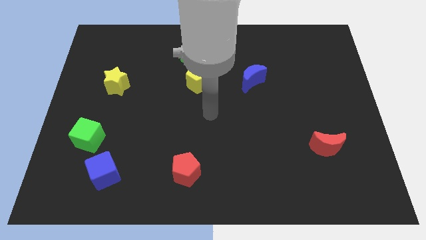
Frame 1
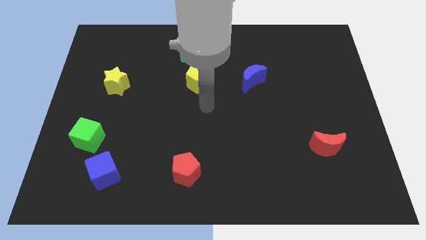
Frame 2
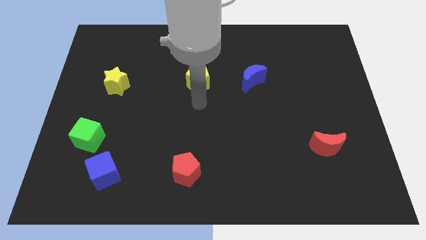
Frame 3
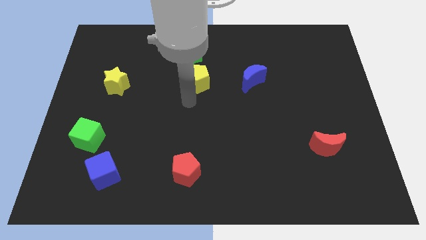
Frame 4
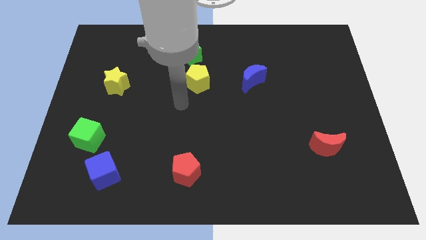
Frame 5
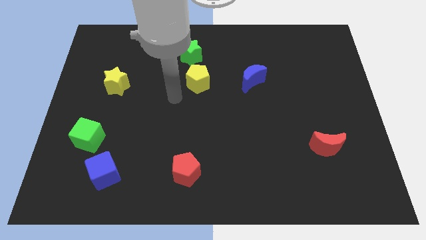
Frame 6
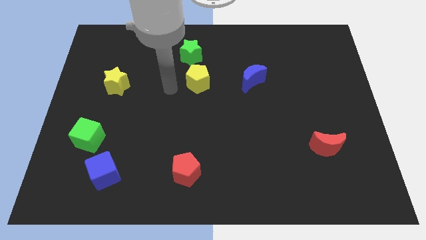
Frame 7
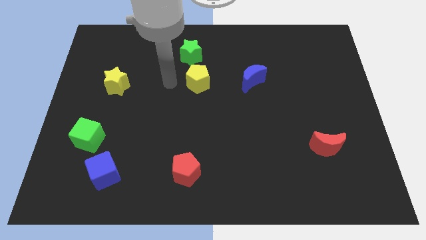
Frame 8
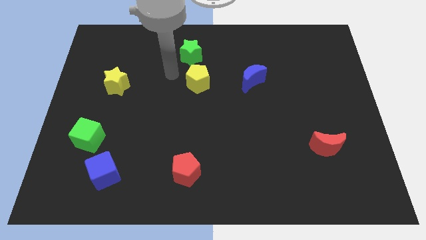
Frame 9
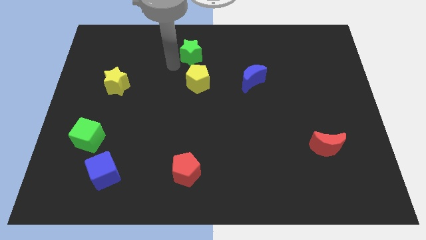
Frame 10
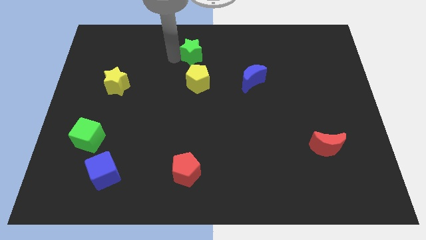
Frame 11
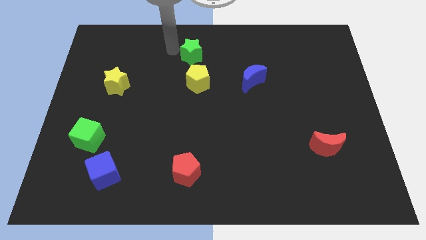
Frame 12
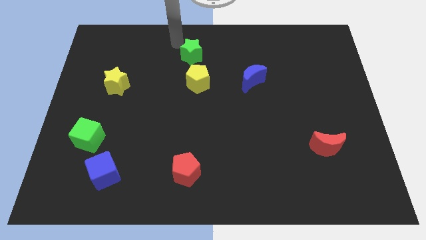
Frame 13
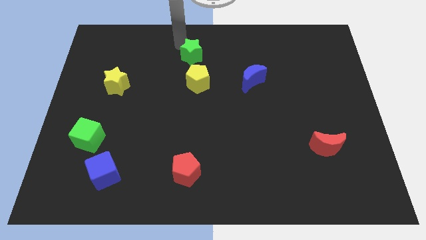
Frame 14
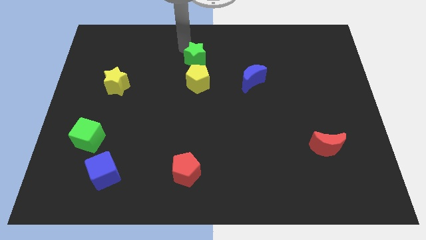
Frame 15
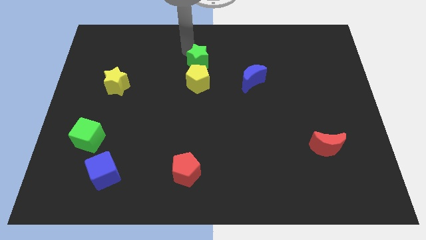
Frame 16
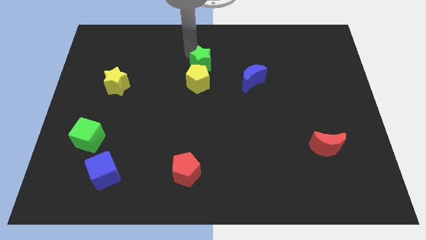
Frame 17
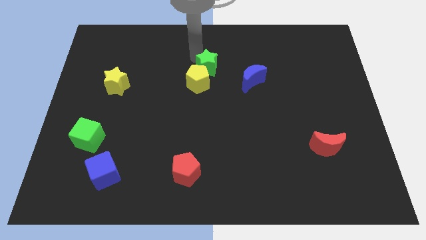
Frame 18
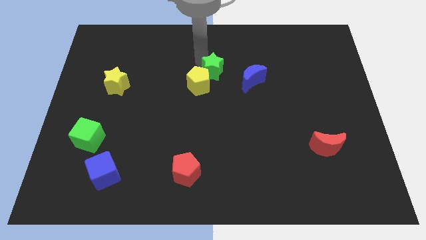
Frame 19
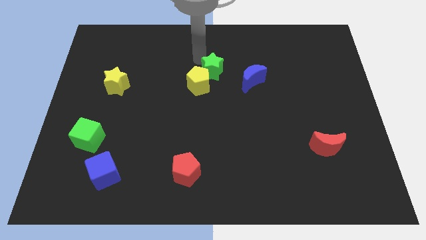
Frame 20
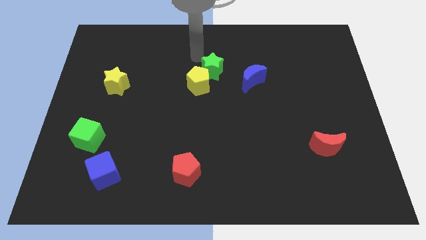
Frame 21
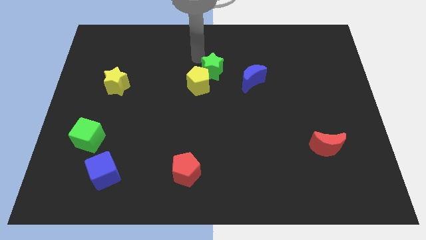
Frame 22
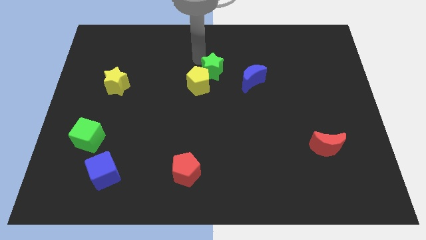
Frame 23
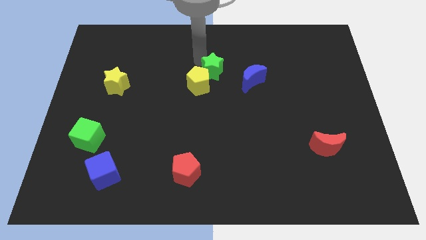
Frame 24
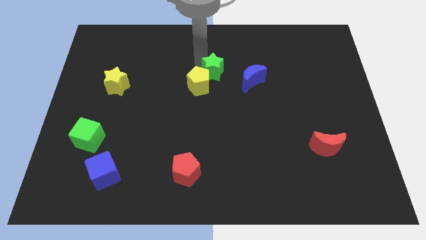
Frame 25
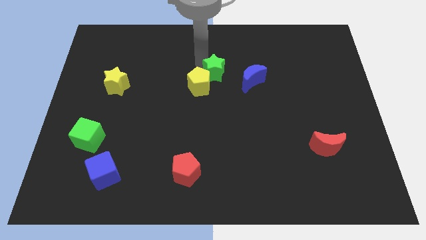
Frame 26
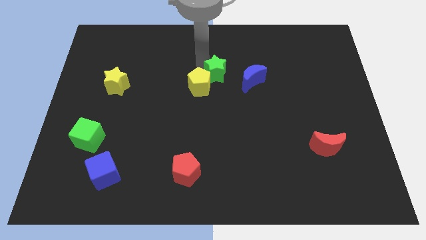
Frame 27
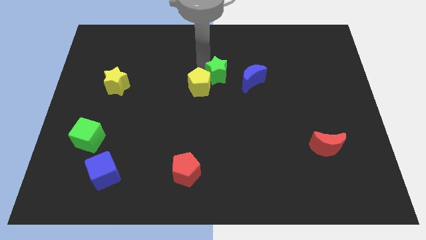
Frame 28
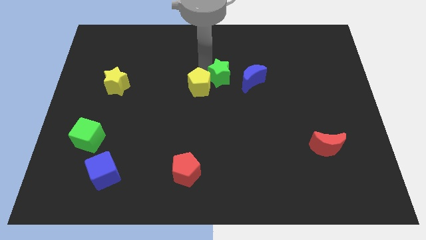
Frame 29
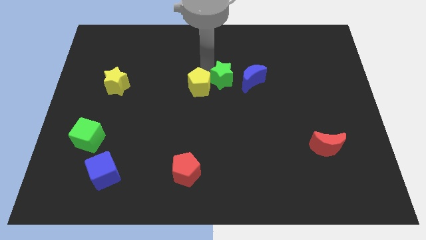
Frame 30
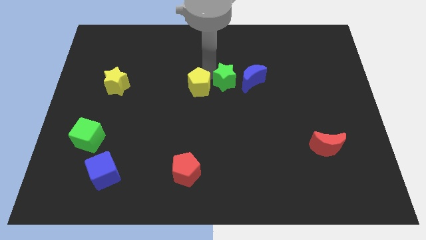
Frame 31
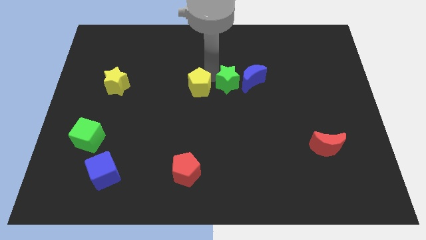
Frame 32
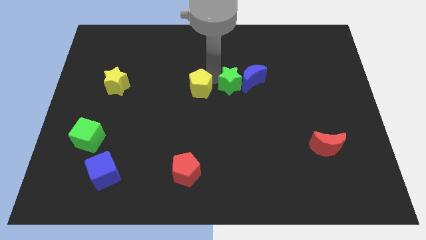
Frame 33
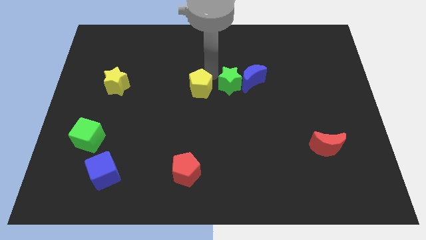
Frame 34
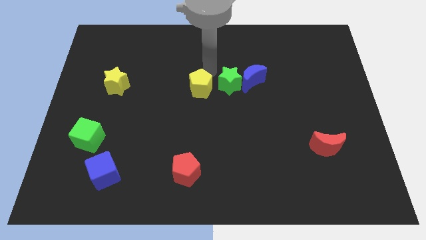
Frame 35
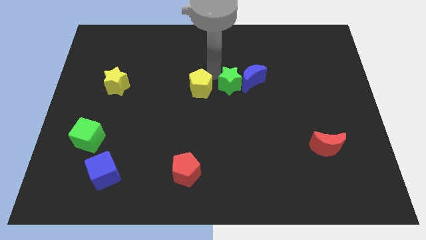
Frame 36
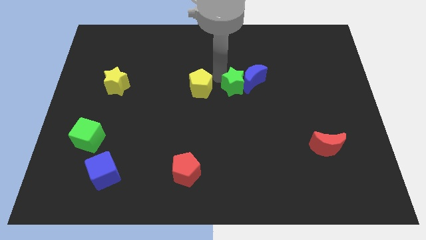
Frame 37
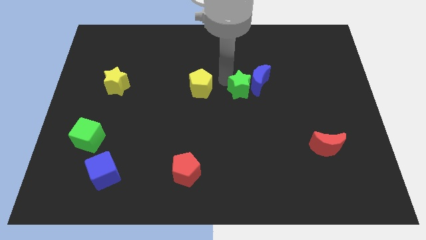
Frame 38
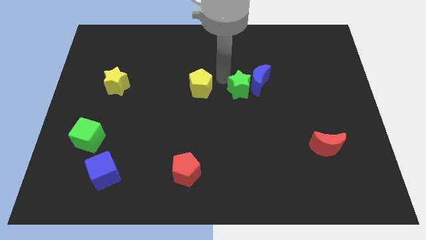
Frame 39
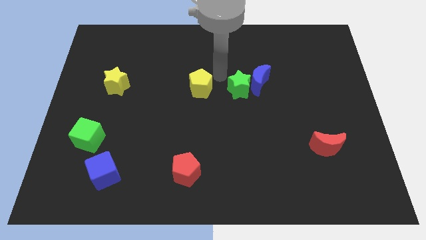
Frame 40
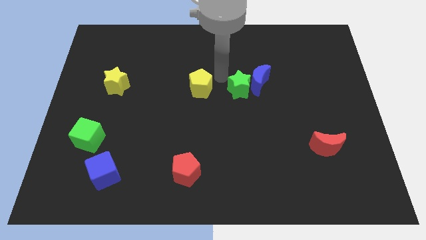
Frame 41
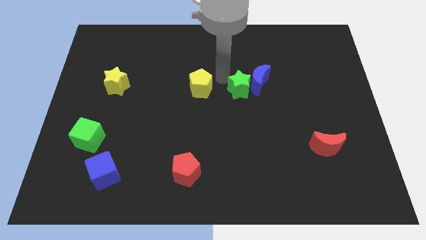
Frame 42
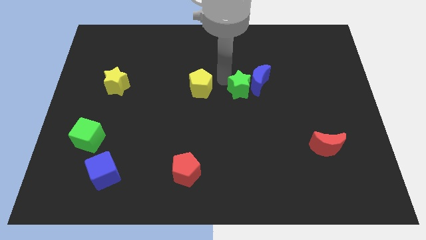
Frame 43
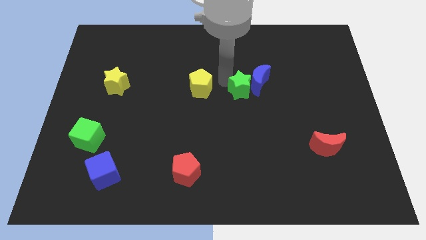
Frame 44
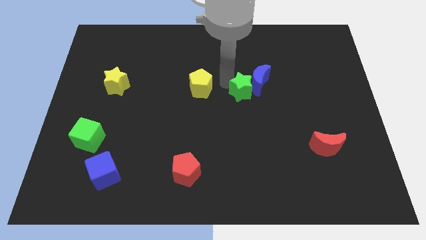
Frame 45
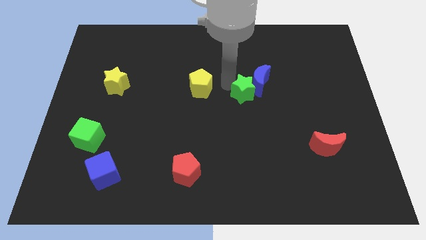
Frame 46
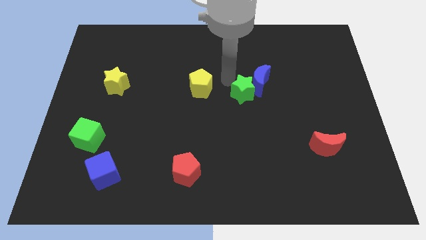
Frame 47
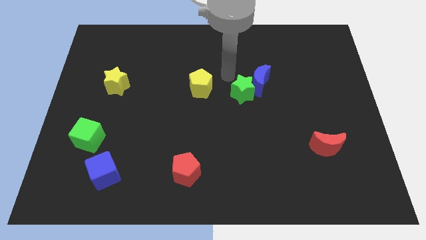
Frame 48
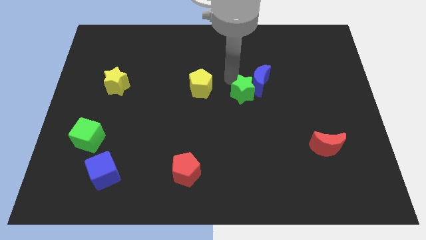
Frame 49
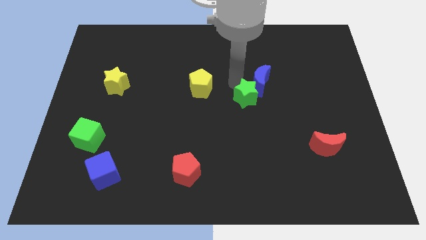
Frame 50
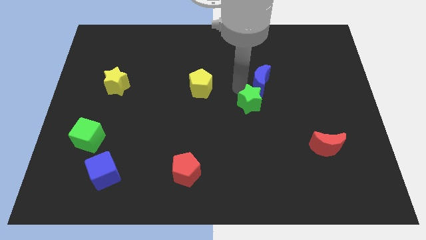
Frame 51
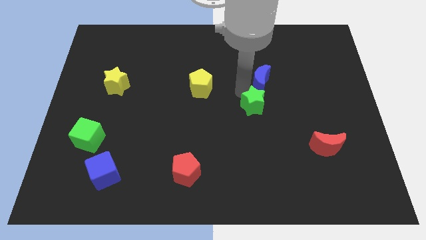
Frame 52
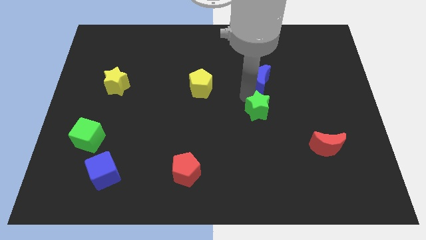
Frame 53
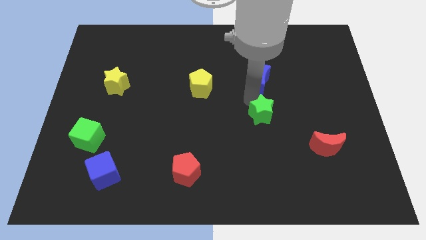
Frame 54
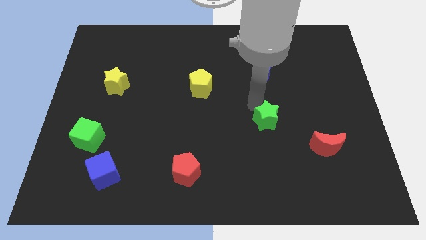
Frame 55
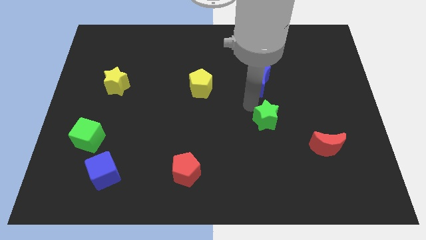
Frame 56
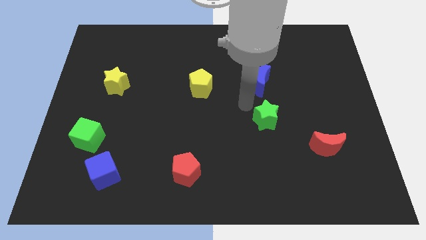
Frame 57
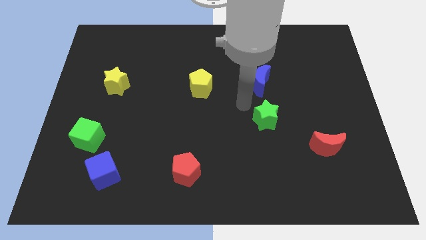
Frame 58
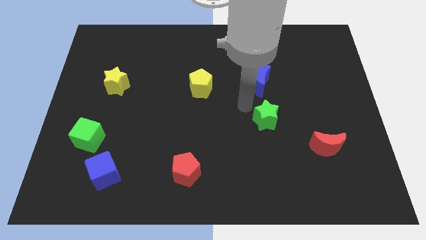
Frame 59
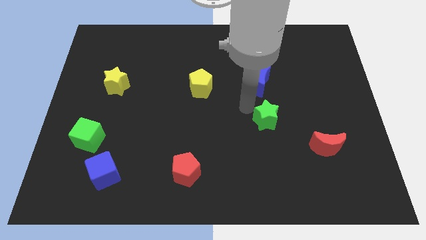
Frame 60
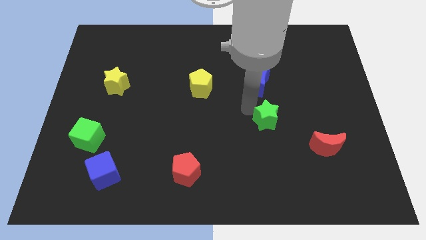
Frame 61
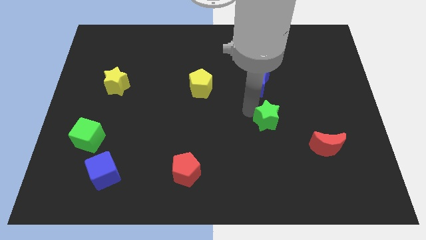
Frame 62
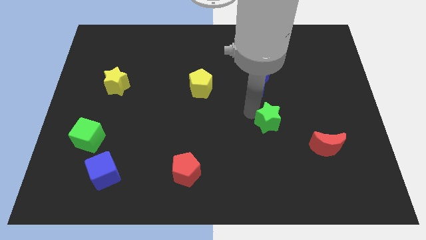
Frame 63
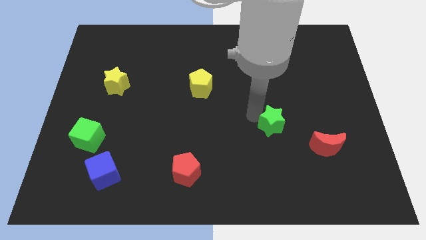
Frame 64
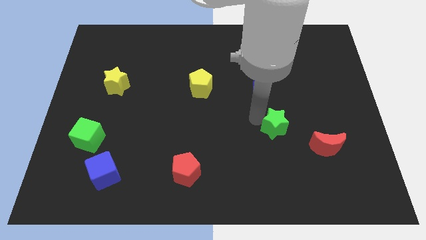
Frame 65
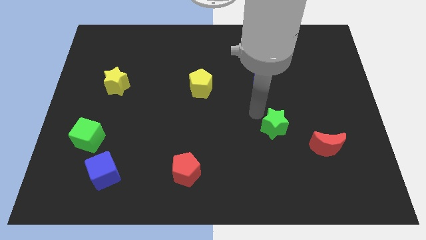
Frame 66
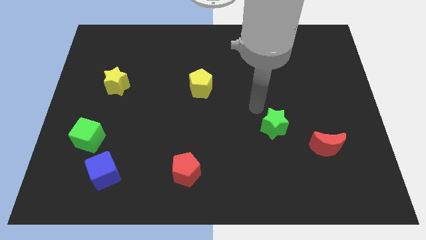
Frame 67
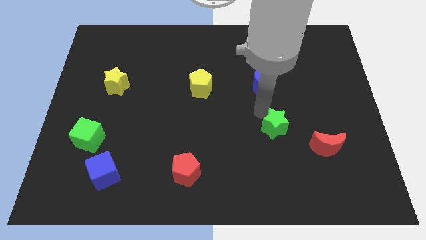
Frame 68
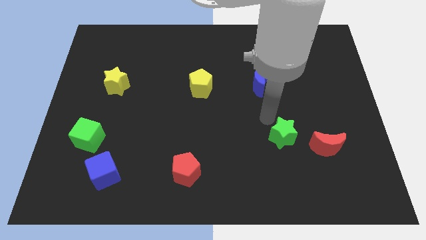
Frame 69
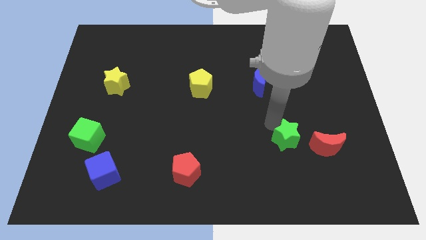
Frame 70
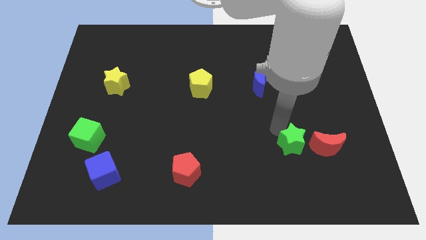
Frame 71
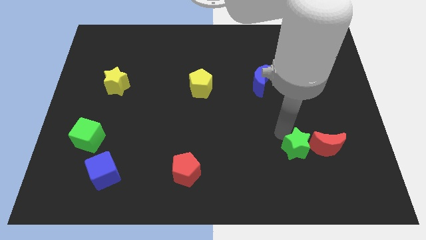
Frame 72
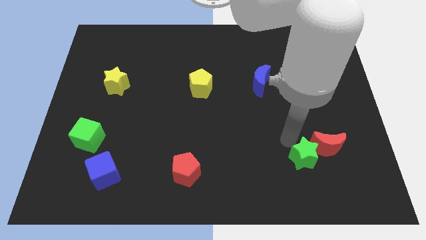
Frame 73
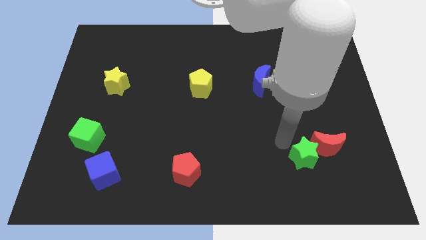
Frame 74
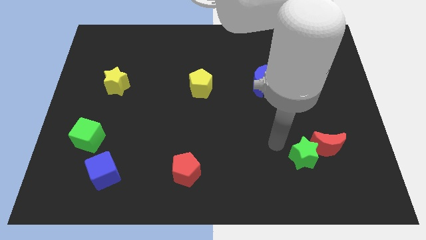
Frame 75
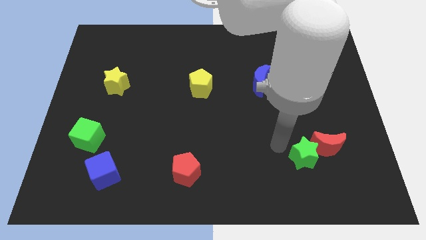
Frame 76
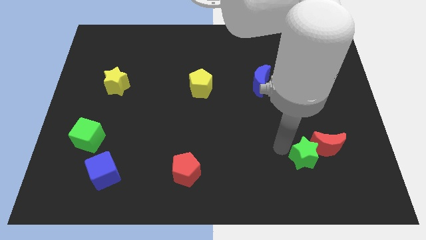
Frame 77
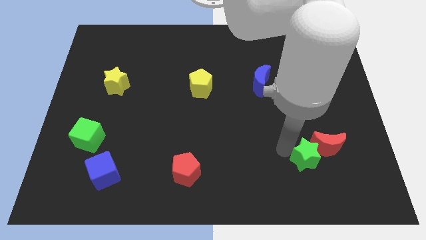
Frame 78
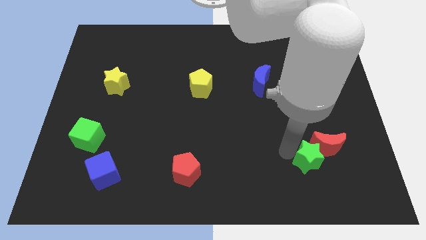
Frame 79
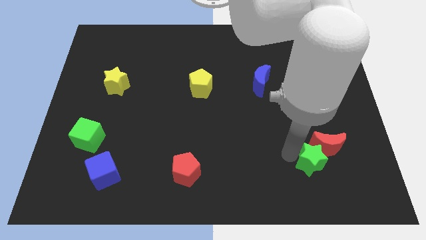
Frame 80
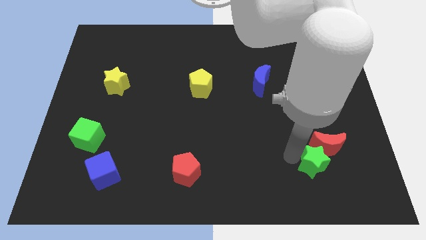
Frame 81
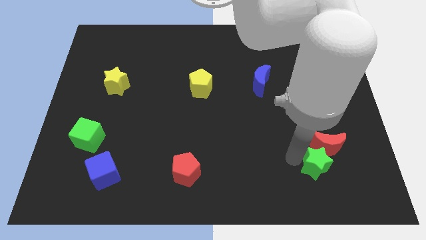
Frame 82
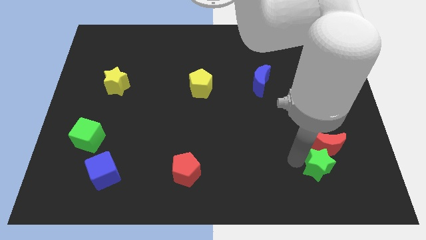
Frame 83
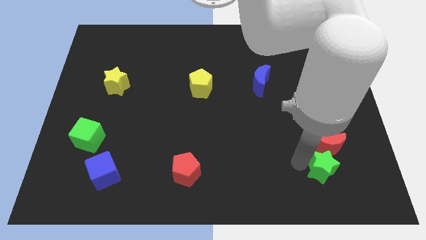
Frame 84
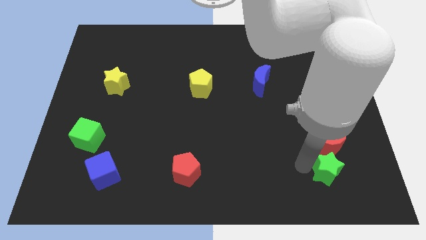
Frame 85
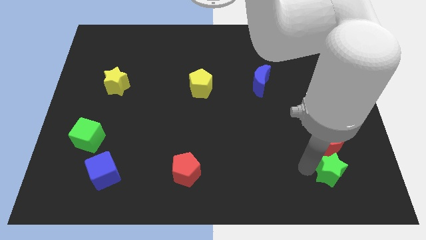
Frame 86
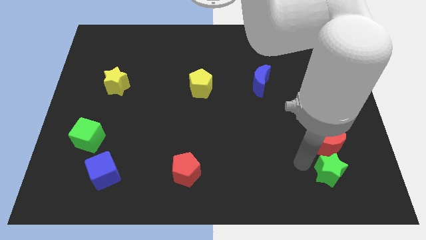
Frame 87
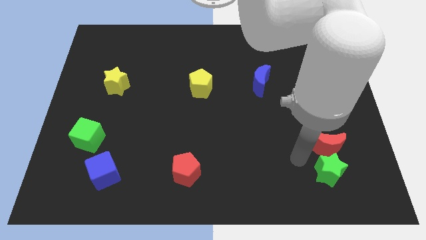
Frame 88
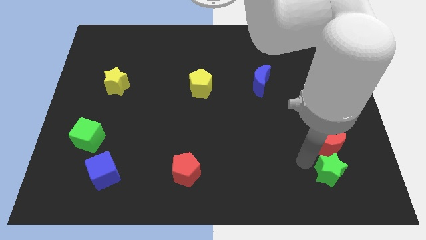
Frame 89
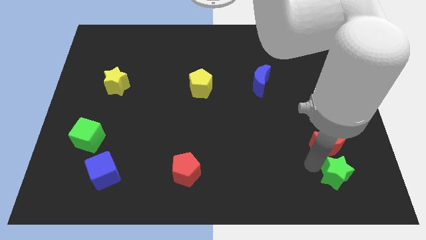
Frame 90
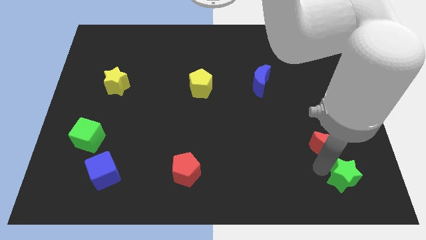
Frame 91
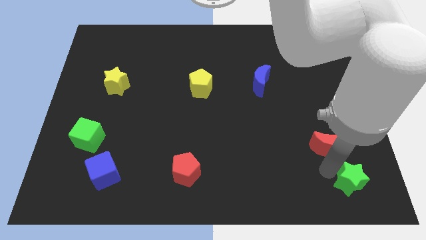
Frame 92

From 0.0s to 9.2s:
move the green star to the bottom right
